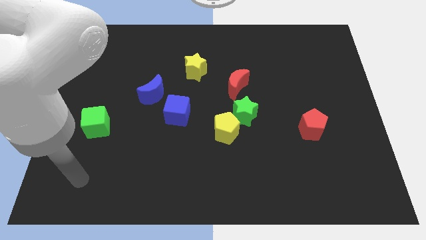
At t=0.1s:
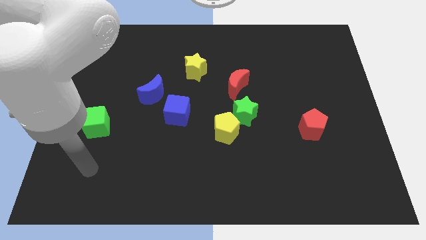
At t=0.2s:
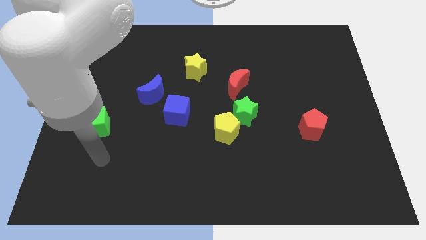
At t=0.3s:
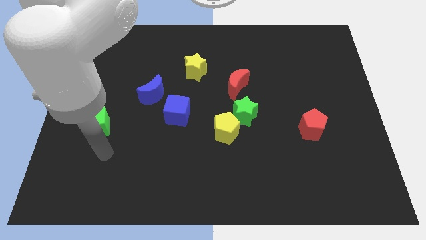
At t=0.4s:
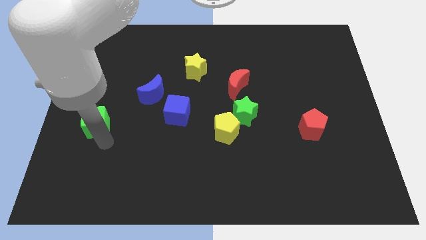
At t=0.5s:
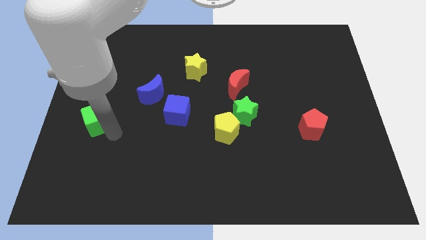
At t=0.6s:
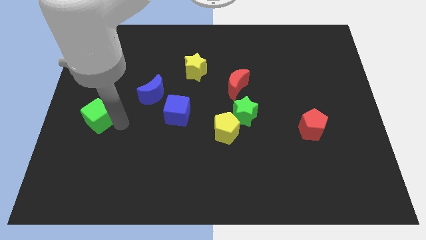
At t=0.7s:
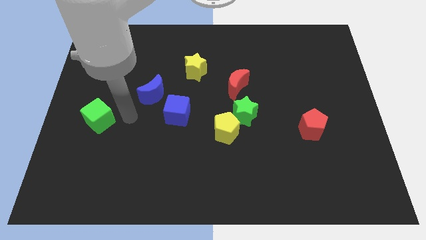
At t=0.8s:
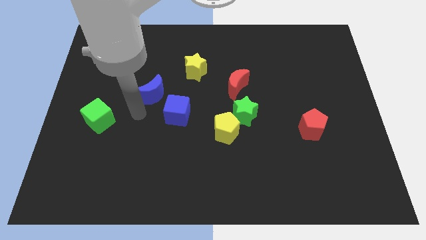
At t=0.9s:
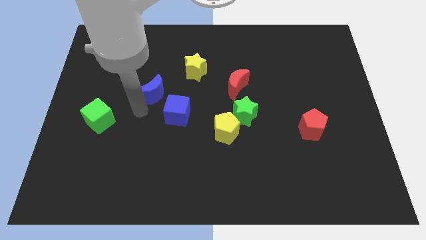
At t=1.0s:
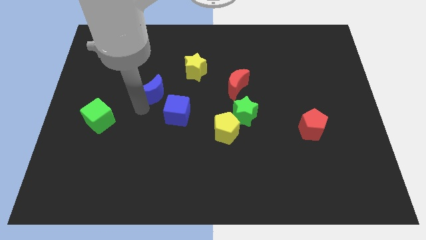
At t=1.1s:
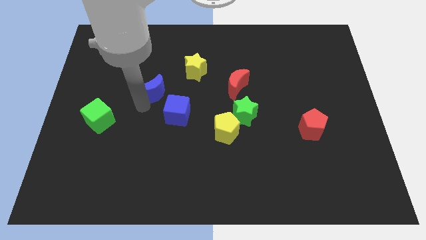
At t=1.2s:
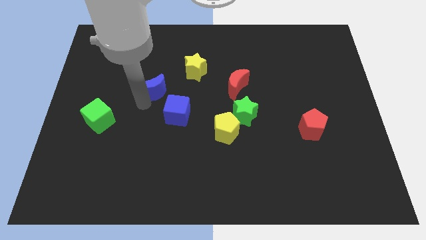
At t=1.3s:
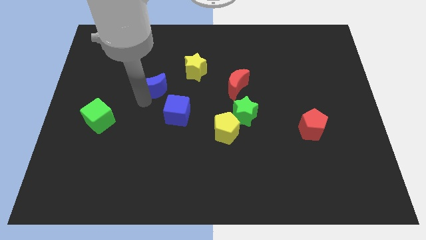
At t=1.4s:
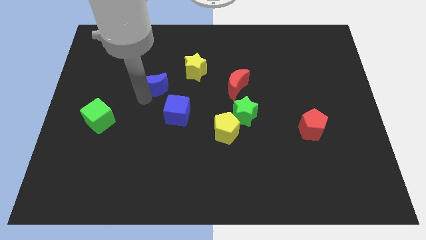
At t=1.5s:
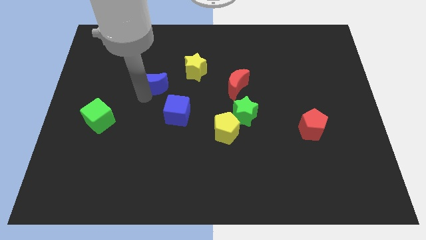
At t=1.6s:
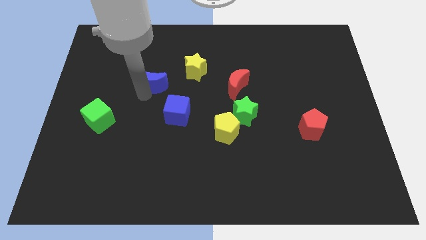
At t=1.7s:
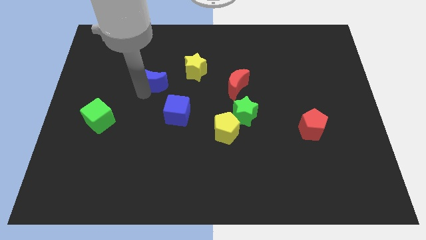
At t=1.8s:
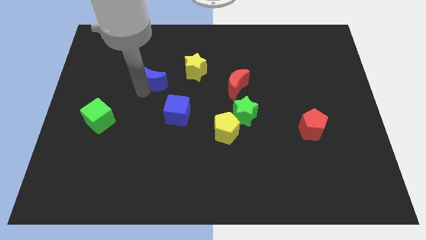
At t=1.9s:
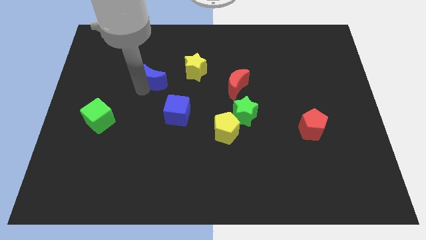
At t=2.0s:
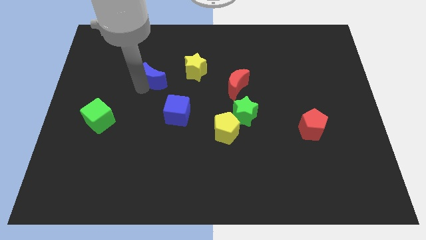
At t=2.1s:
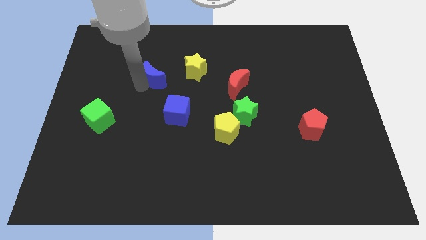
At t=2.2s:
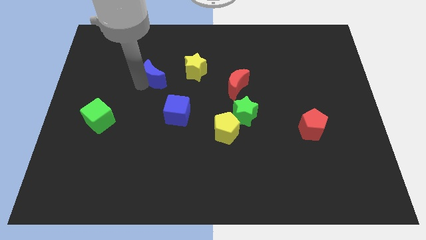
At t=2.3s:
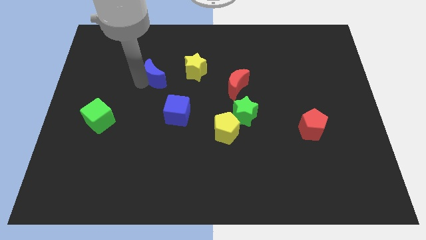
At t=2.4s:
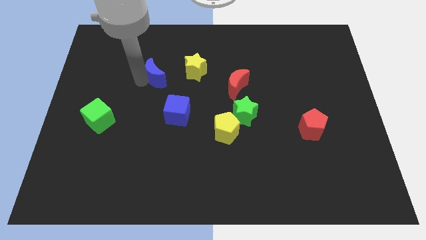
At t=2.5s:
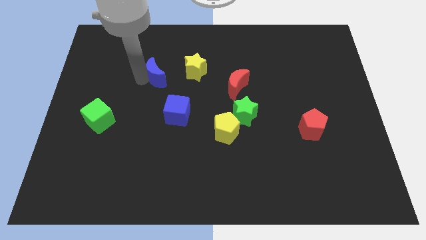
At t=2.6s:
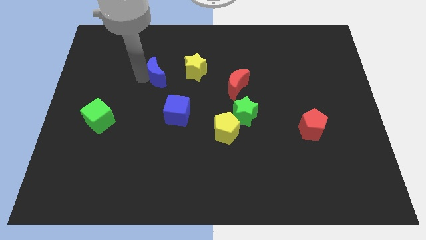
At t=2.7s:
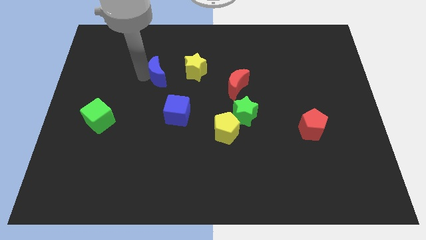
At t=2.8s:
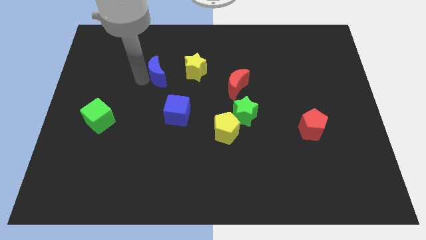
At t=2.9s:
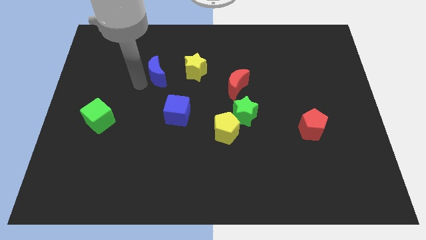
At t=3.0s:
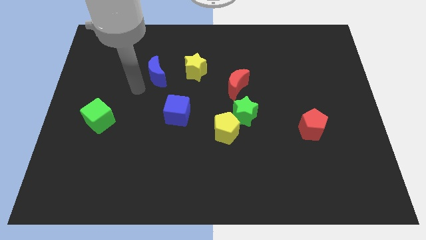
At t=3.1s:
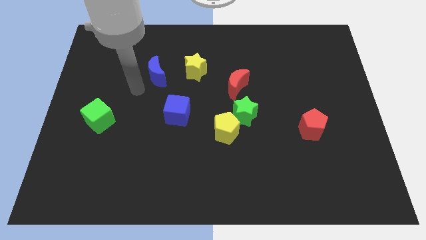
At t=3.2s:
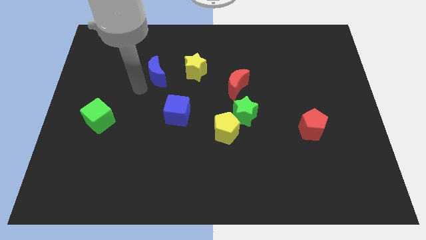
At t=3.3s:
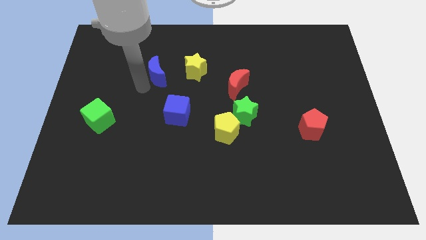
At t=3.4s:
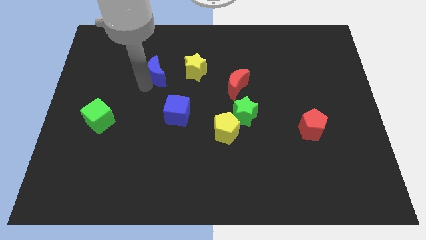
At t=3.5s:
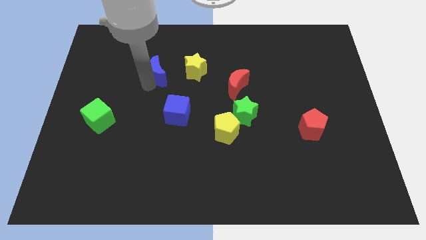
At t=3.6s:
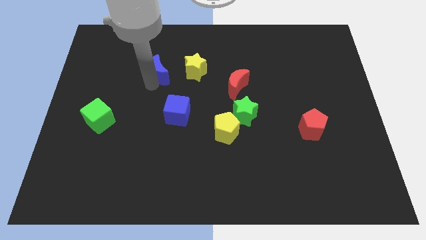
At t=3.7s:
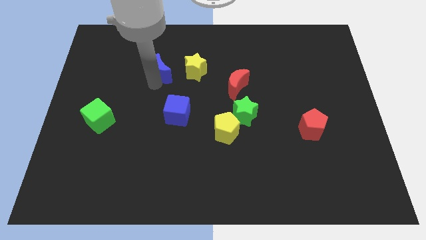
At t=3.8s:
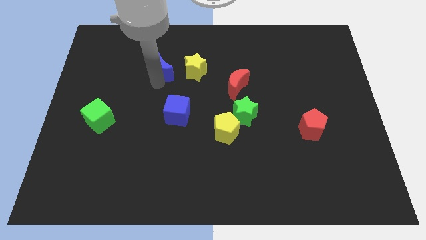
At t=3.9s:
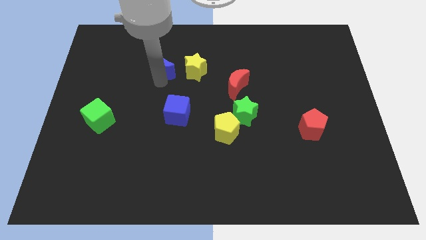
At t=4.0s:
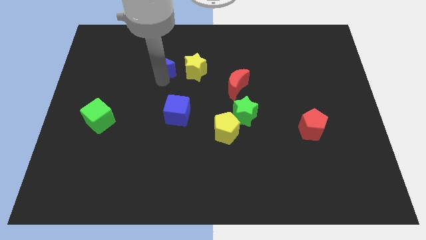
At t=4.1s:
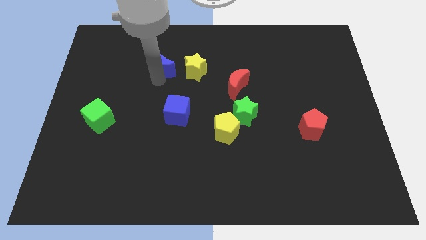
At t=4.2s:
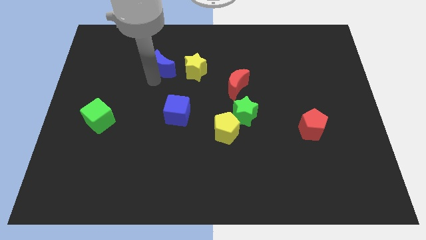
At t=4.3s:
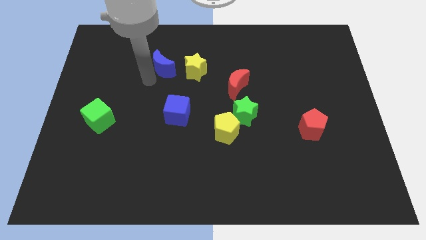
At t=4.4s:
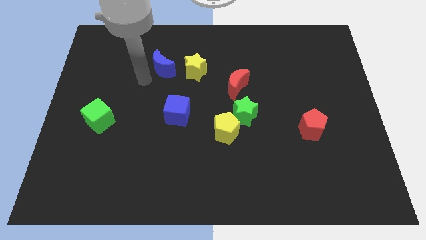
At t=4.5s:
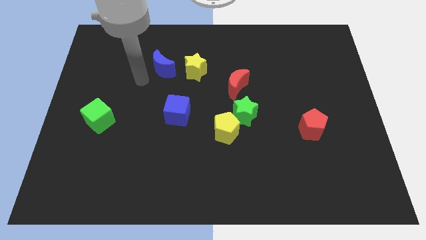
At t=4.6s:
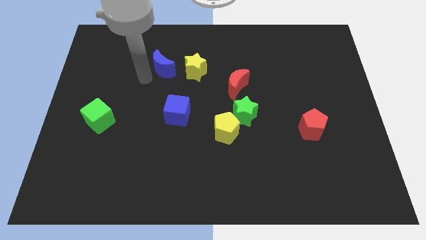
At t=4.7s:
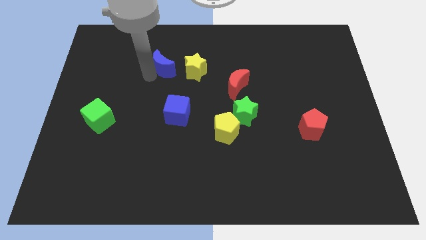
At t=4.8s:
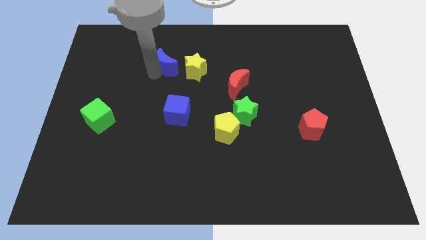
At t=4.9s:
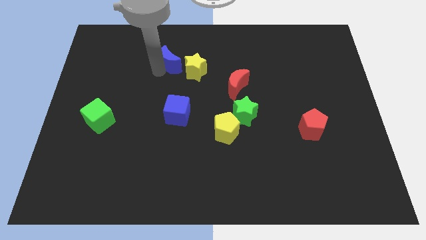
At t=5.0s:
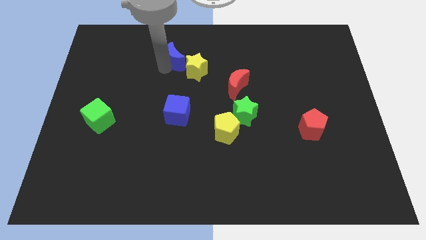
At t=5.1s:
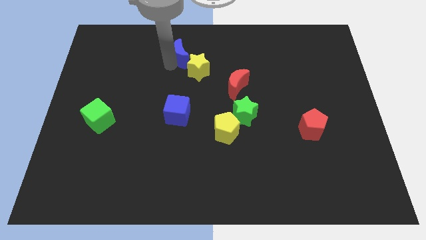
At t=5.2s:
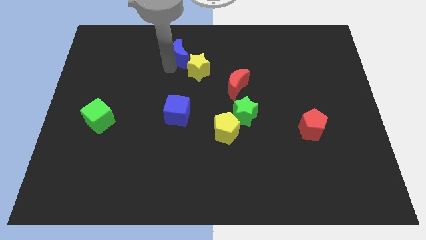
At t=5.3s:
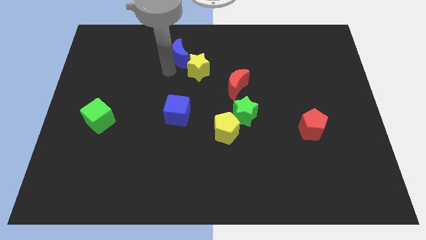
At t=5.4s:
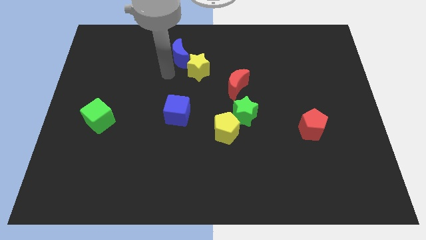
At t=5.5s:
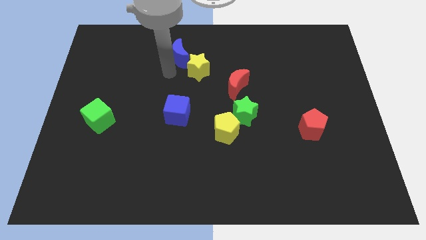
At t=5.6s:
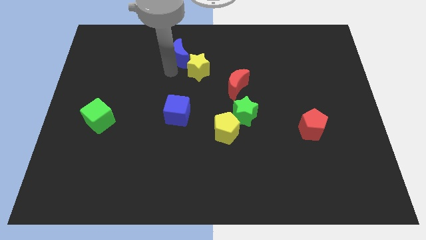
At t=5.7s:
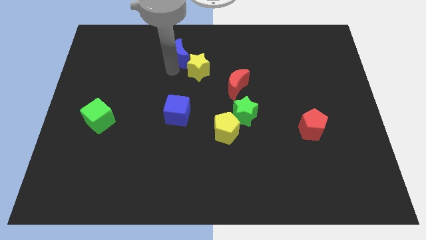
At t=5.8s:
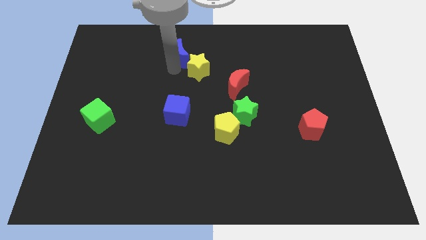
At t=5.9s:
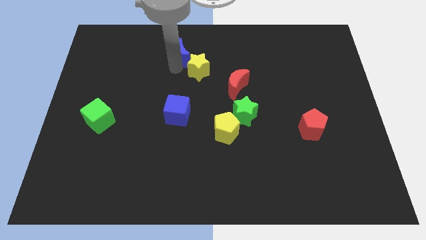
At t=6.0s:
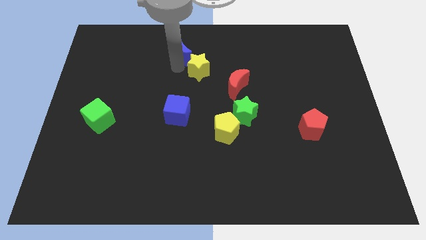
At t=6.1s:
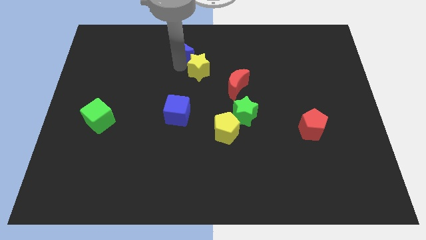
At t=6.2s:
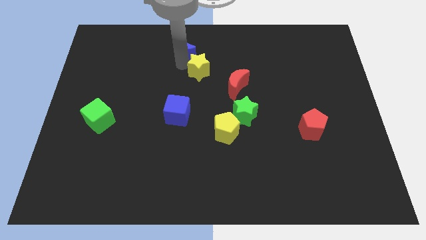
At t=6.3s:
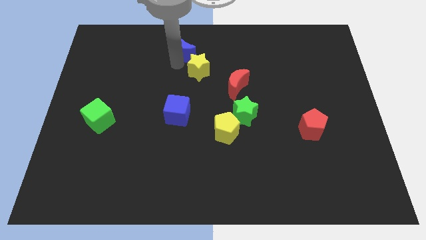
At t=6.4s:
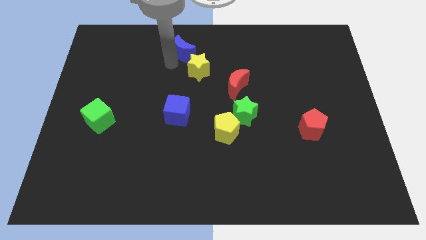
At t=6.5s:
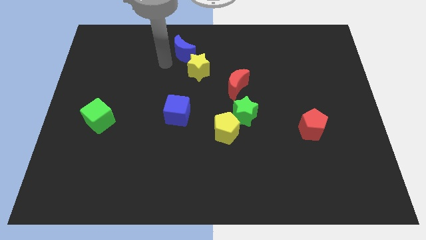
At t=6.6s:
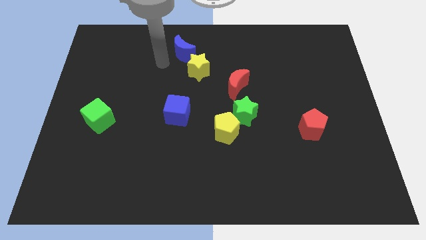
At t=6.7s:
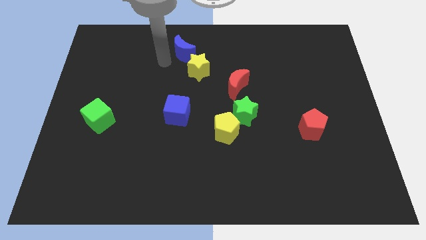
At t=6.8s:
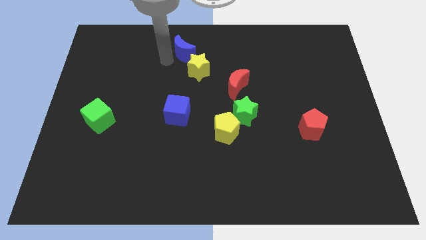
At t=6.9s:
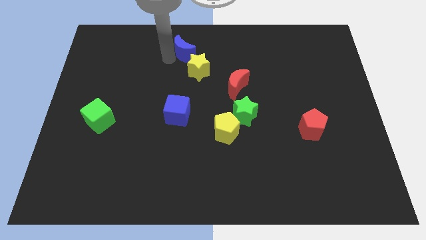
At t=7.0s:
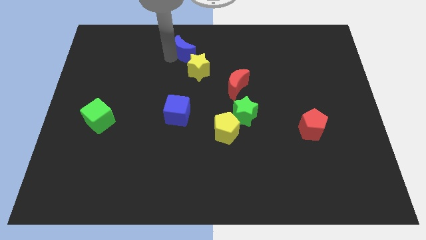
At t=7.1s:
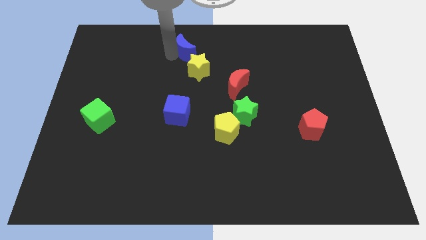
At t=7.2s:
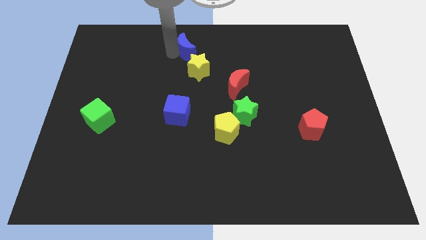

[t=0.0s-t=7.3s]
slide the blue moon to the top side
